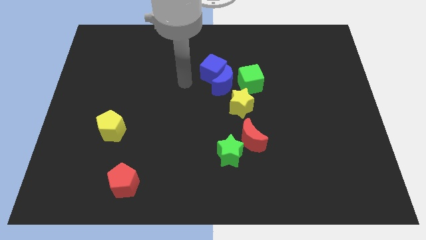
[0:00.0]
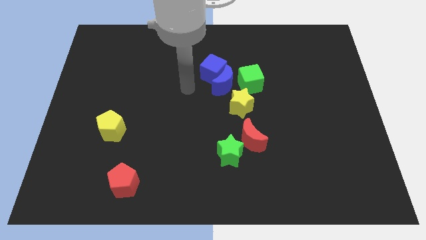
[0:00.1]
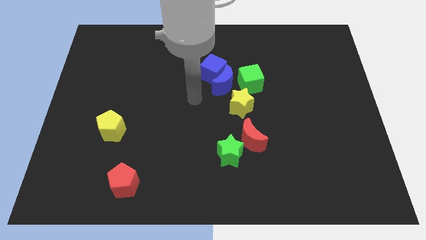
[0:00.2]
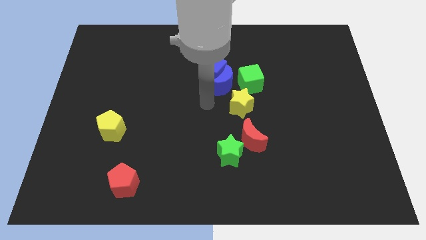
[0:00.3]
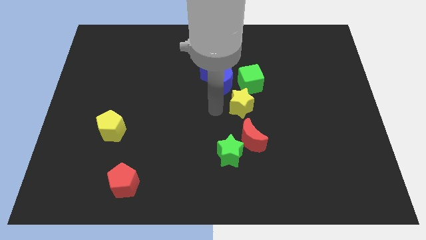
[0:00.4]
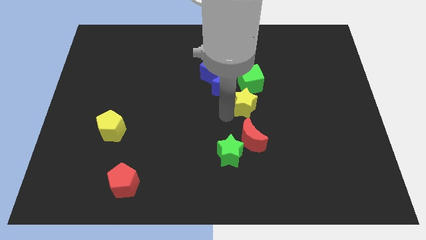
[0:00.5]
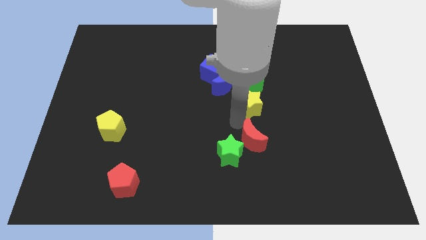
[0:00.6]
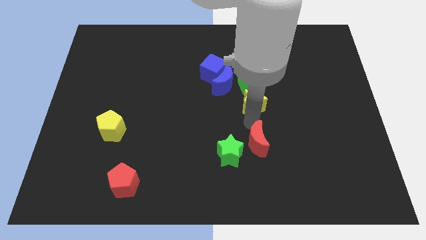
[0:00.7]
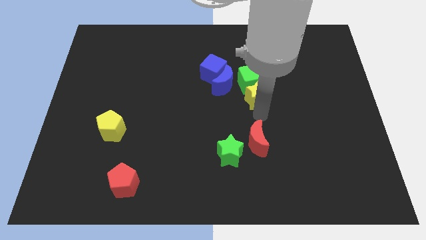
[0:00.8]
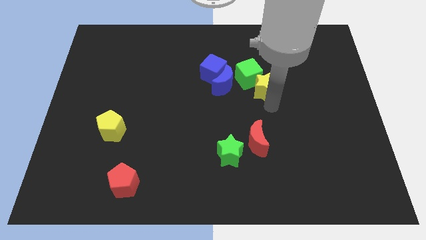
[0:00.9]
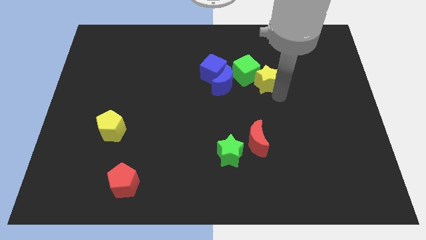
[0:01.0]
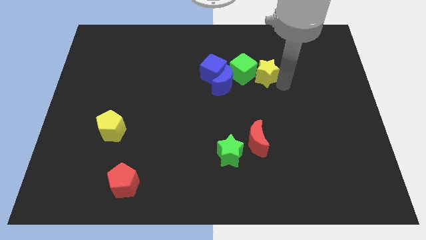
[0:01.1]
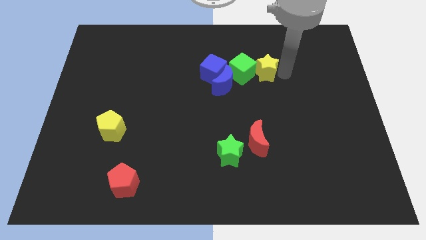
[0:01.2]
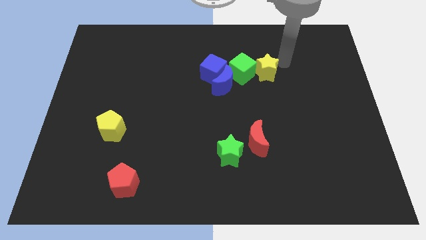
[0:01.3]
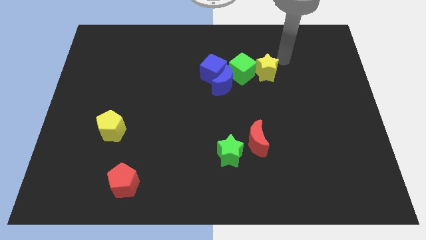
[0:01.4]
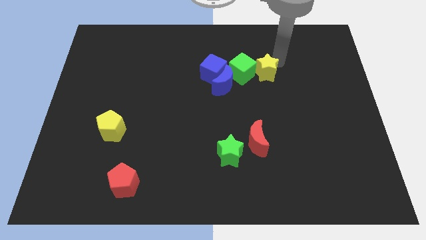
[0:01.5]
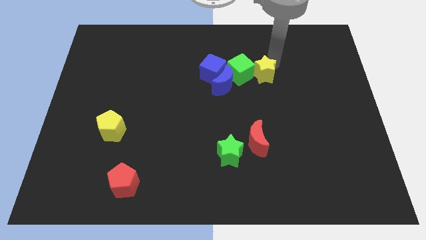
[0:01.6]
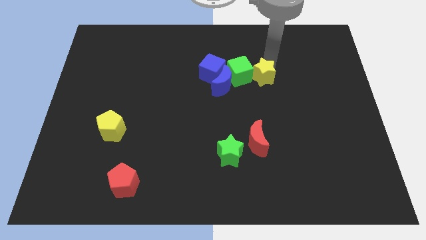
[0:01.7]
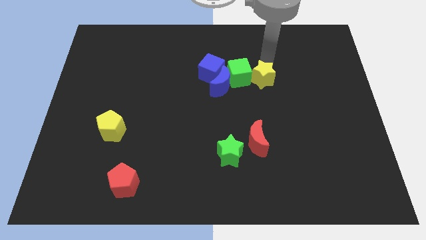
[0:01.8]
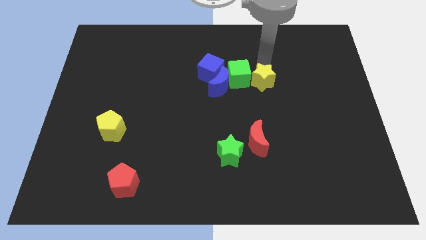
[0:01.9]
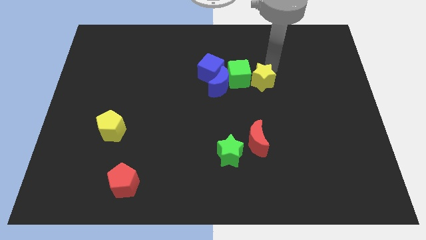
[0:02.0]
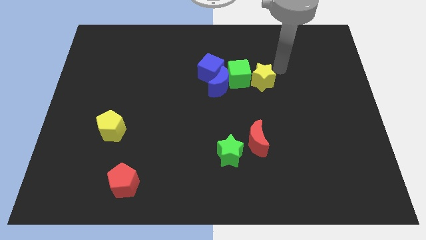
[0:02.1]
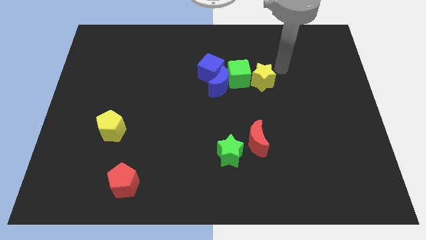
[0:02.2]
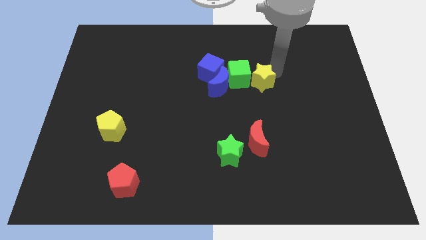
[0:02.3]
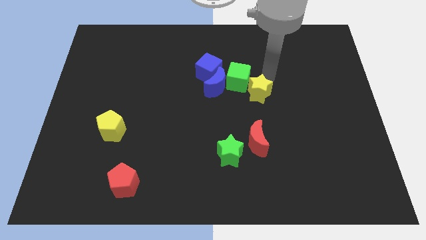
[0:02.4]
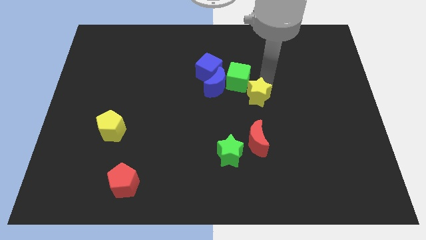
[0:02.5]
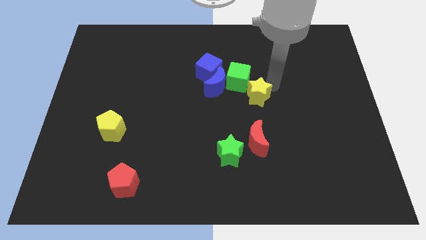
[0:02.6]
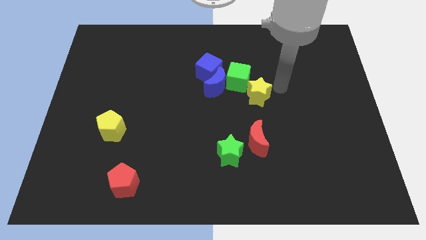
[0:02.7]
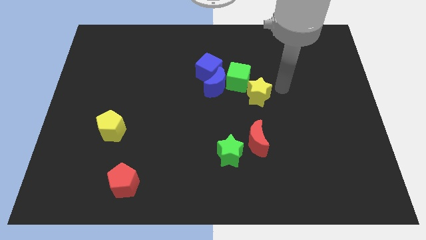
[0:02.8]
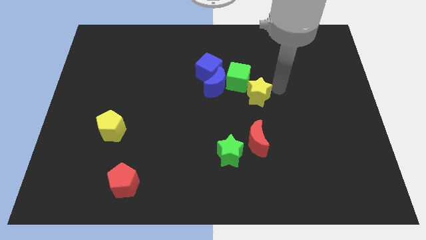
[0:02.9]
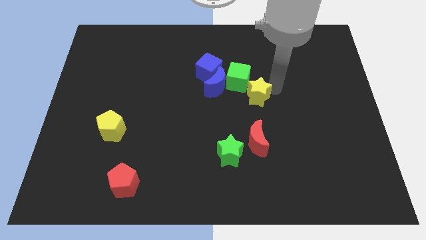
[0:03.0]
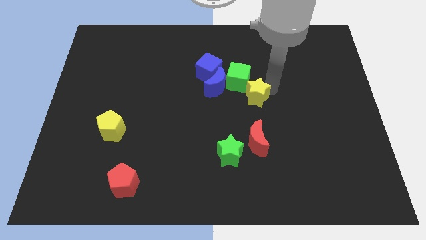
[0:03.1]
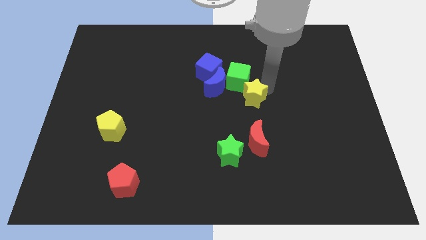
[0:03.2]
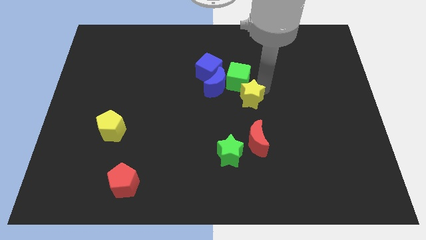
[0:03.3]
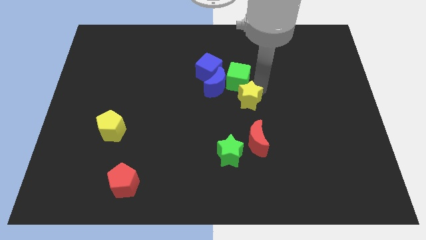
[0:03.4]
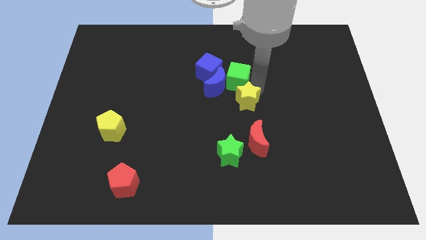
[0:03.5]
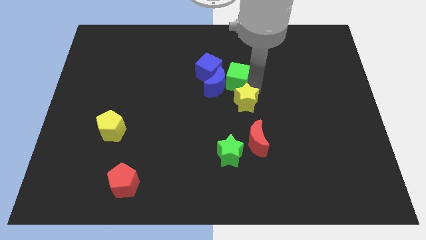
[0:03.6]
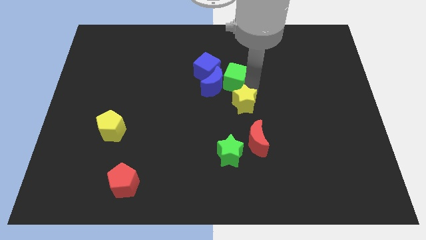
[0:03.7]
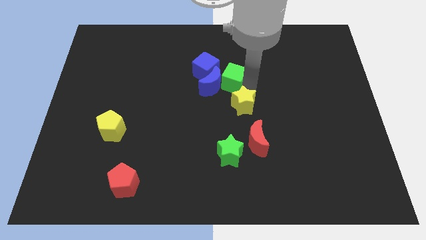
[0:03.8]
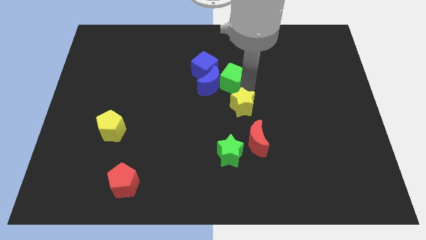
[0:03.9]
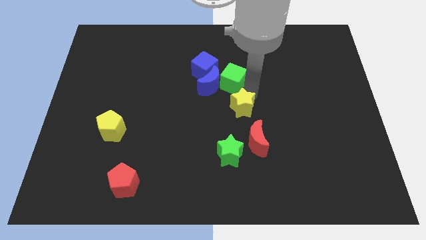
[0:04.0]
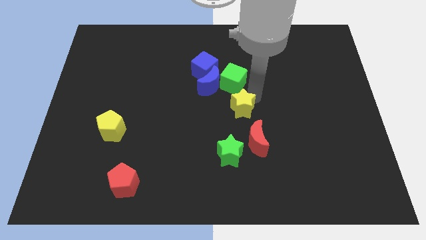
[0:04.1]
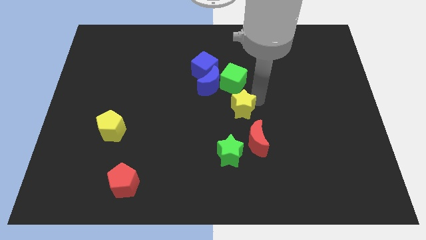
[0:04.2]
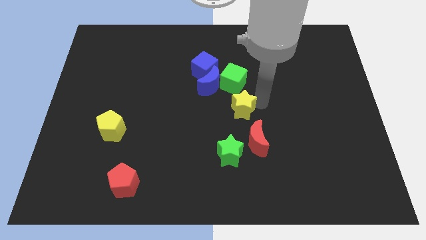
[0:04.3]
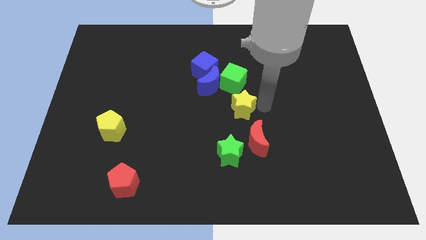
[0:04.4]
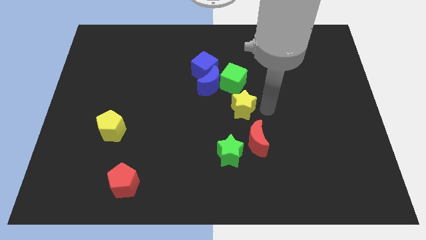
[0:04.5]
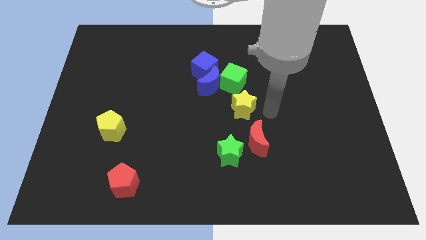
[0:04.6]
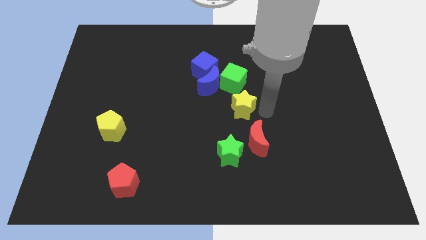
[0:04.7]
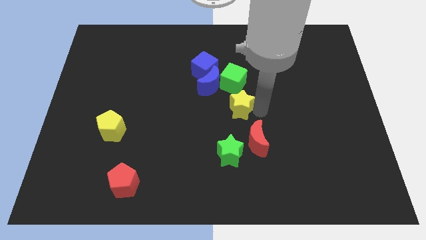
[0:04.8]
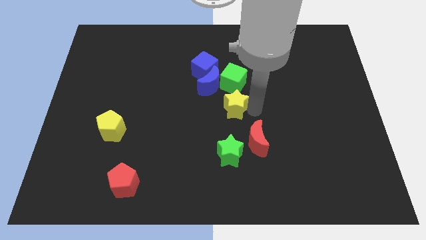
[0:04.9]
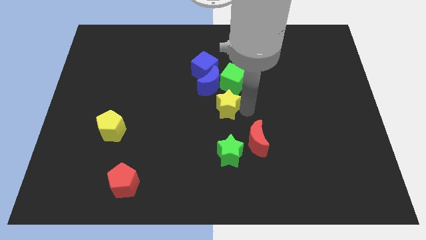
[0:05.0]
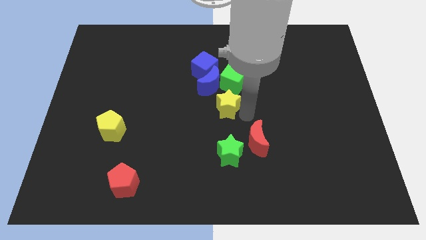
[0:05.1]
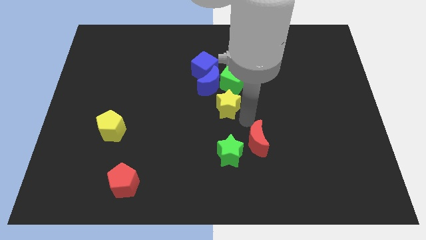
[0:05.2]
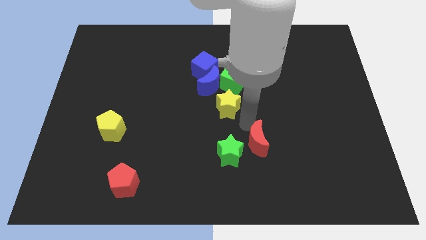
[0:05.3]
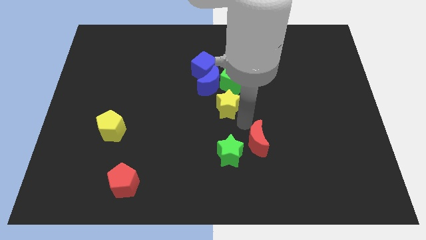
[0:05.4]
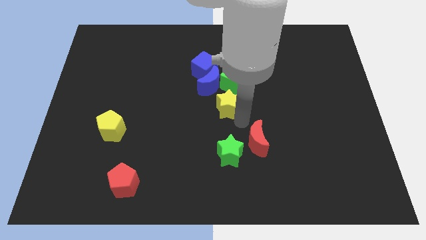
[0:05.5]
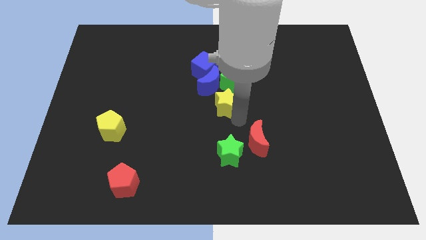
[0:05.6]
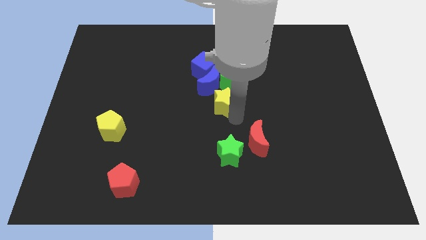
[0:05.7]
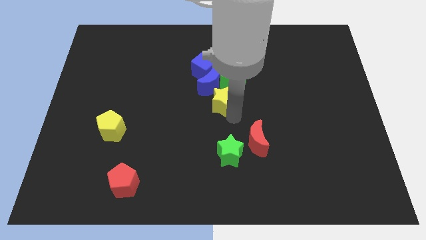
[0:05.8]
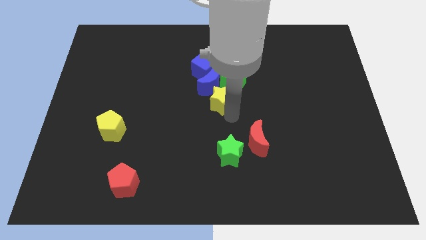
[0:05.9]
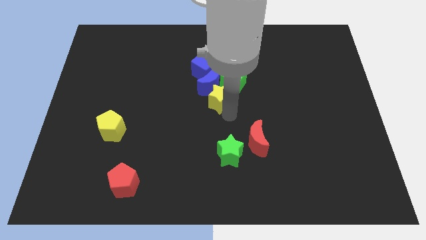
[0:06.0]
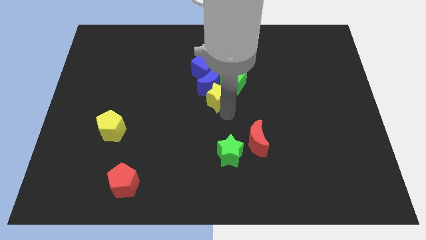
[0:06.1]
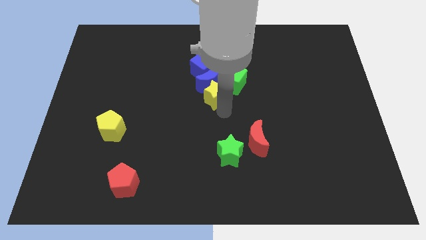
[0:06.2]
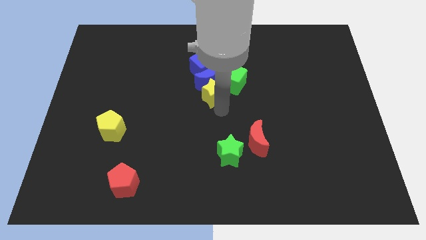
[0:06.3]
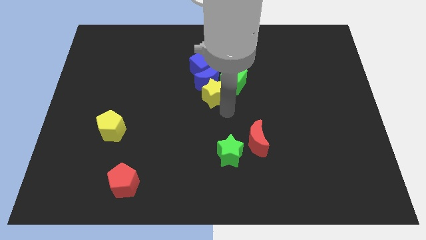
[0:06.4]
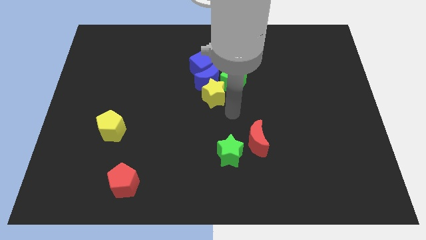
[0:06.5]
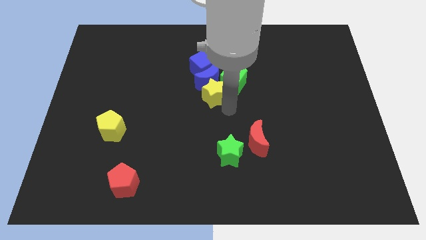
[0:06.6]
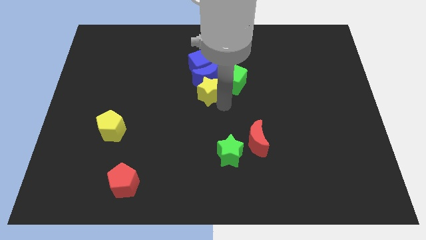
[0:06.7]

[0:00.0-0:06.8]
slightly push the yellow star upwards and left

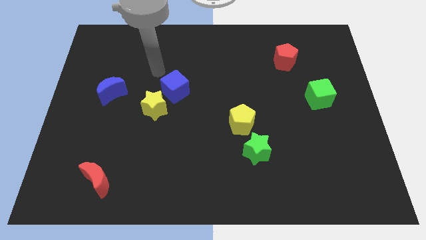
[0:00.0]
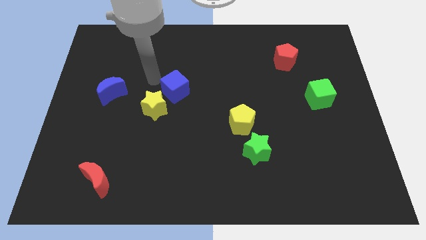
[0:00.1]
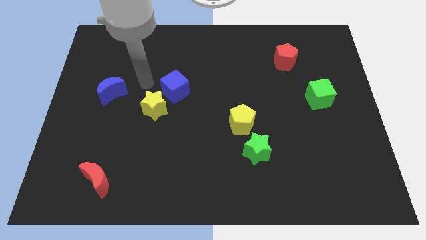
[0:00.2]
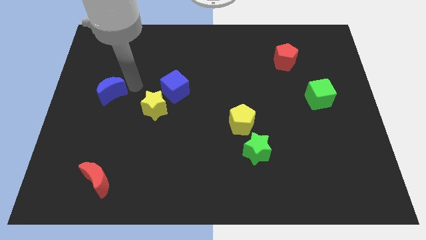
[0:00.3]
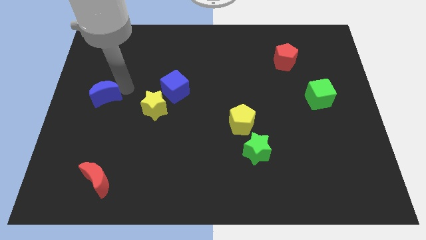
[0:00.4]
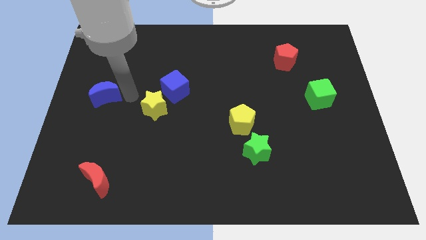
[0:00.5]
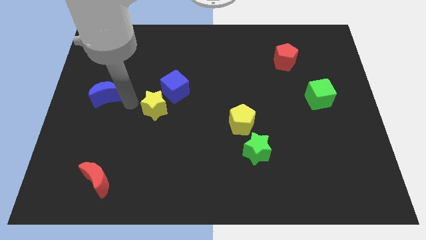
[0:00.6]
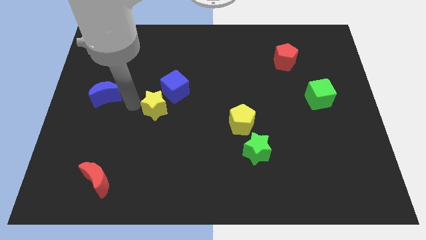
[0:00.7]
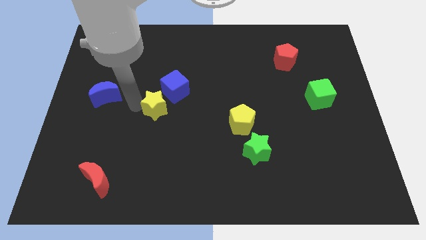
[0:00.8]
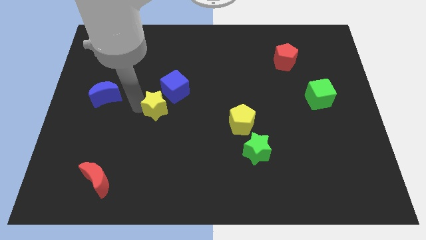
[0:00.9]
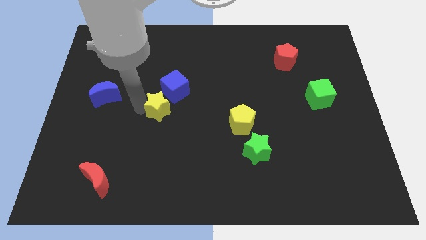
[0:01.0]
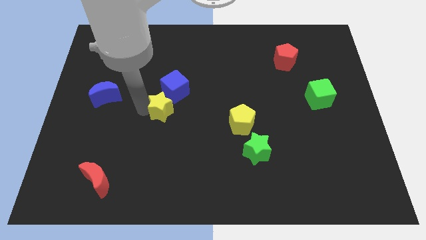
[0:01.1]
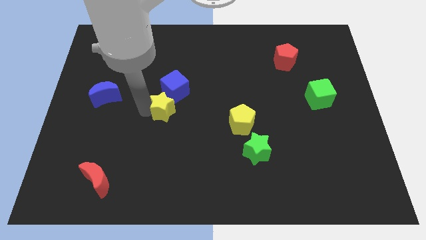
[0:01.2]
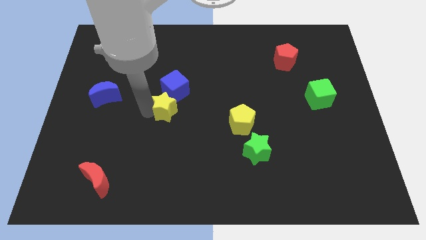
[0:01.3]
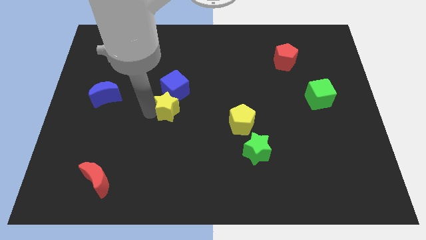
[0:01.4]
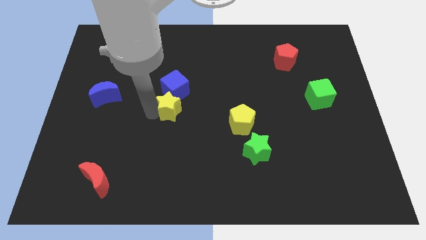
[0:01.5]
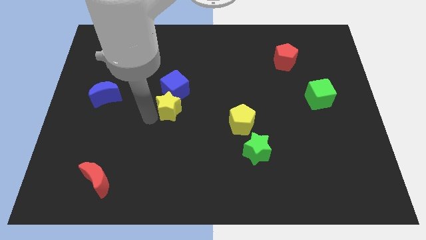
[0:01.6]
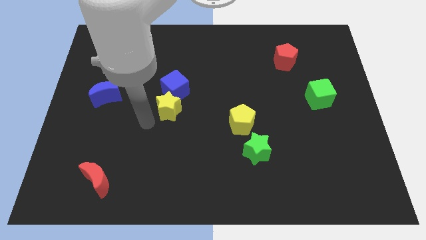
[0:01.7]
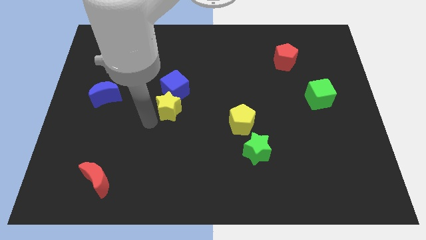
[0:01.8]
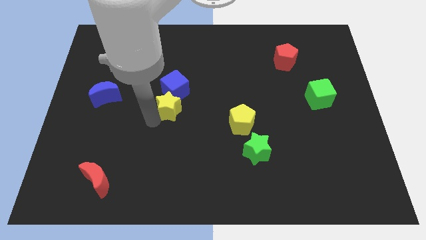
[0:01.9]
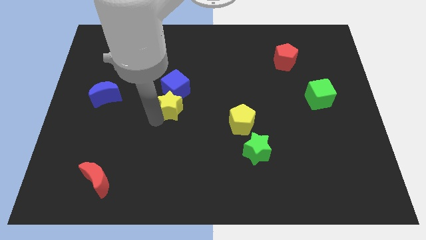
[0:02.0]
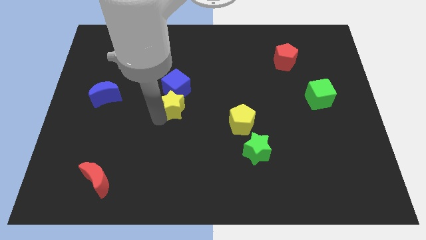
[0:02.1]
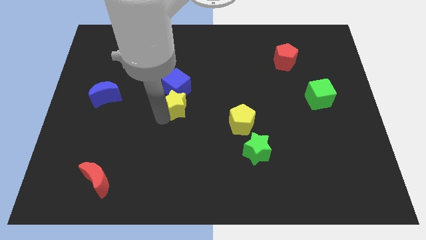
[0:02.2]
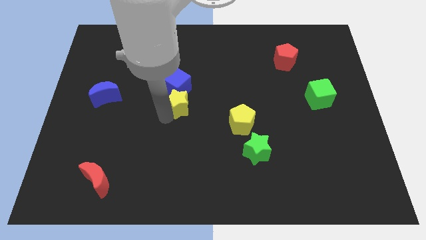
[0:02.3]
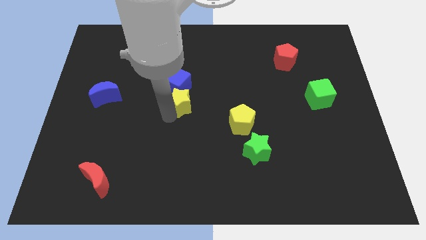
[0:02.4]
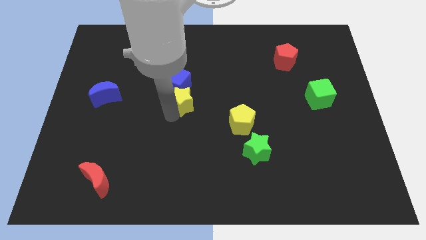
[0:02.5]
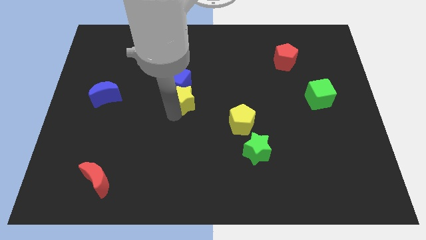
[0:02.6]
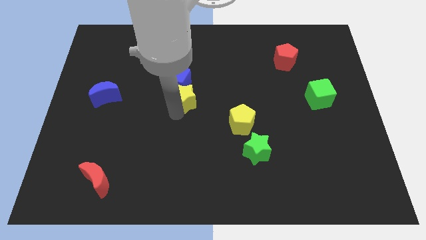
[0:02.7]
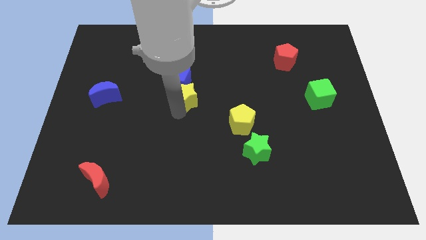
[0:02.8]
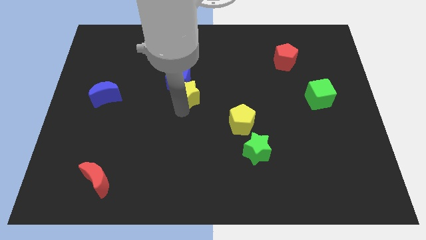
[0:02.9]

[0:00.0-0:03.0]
slightly push the yellow star up and then to the right
